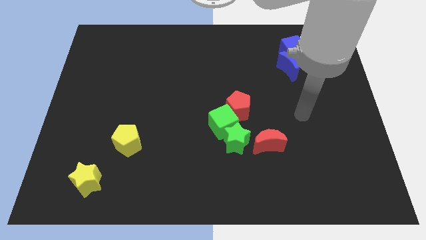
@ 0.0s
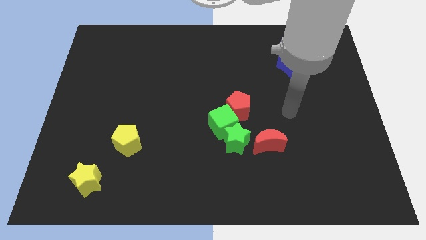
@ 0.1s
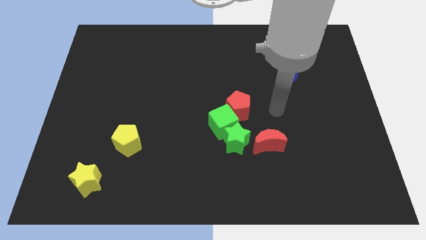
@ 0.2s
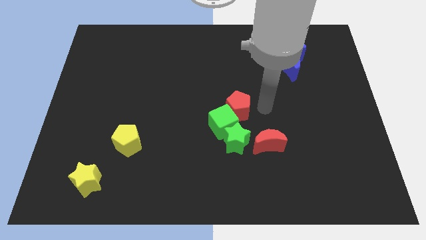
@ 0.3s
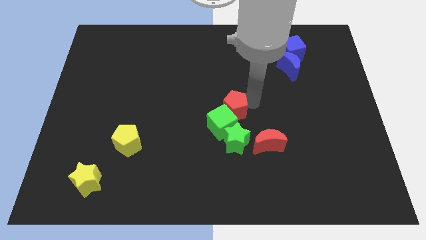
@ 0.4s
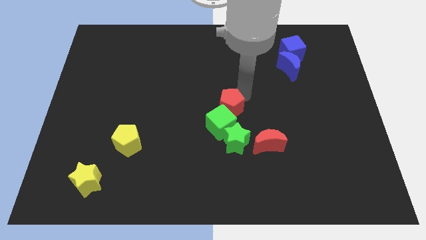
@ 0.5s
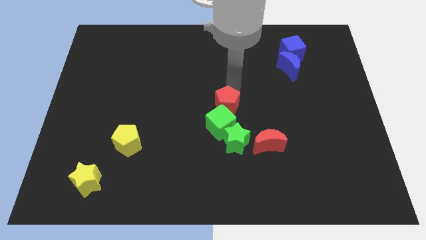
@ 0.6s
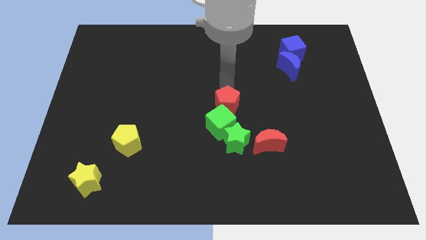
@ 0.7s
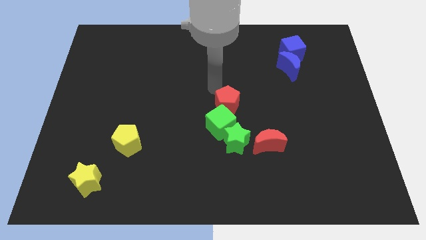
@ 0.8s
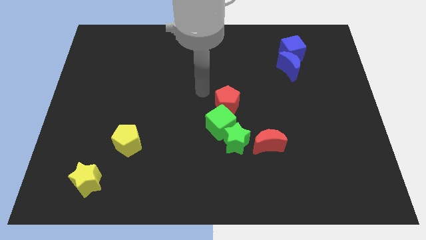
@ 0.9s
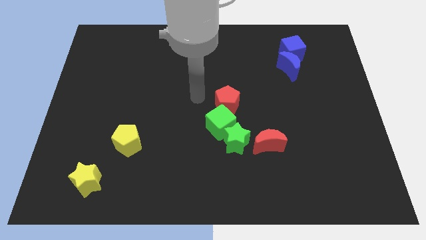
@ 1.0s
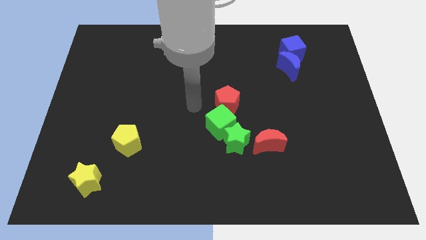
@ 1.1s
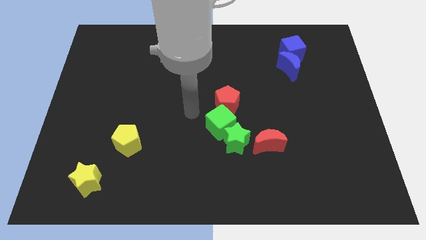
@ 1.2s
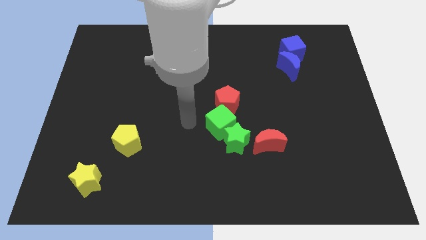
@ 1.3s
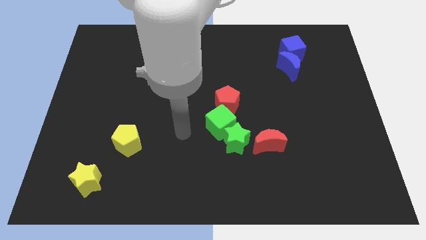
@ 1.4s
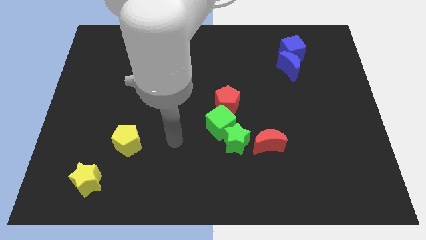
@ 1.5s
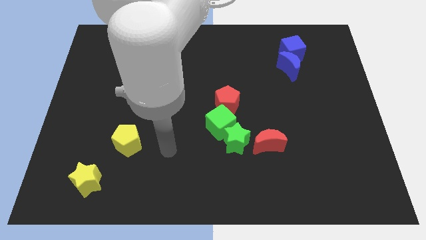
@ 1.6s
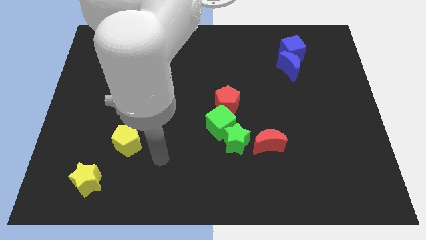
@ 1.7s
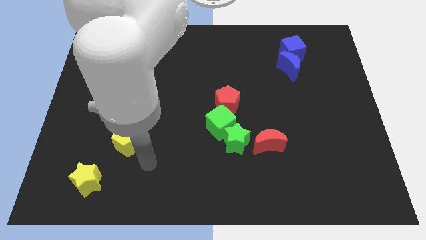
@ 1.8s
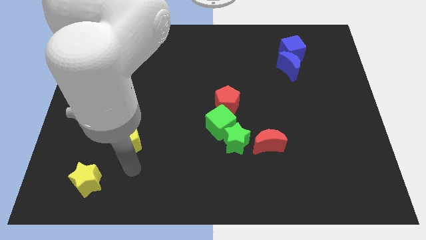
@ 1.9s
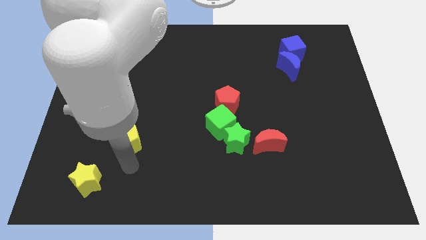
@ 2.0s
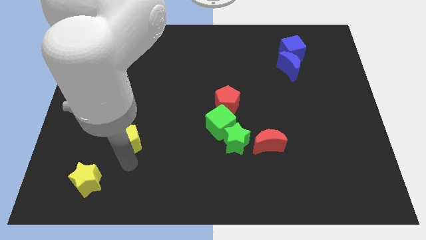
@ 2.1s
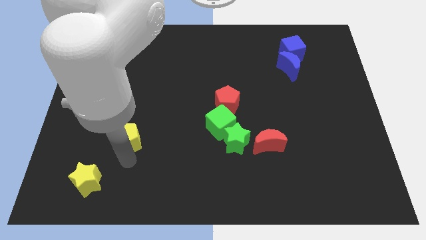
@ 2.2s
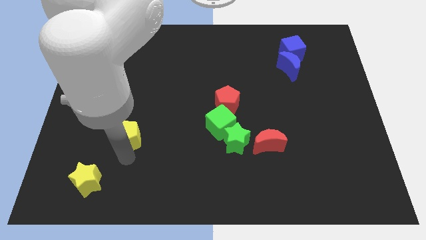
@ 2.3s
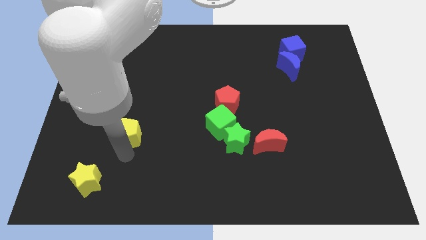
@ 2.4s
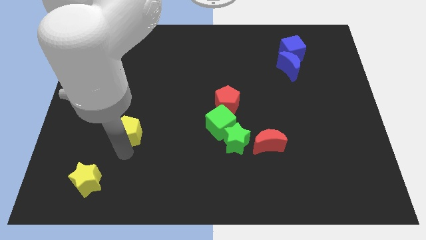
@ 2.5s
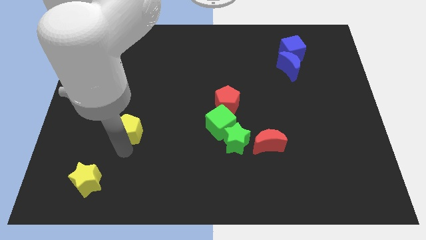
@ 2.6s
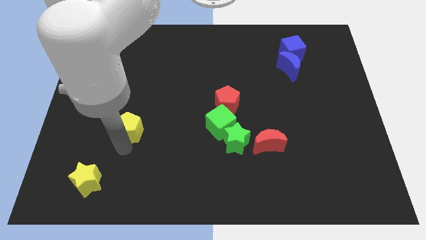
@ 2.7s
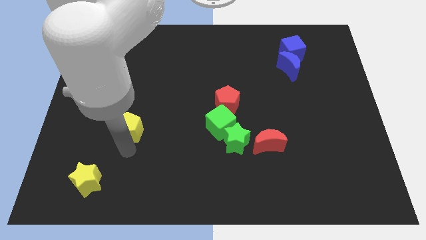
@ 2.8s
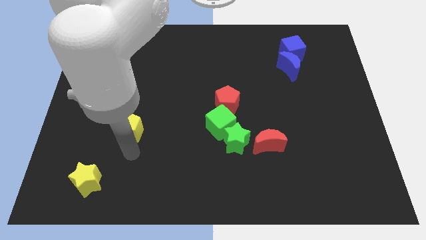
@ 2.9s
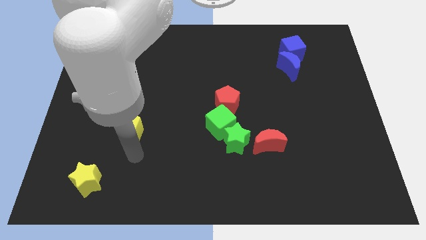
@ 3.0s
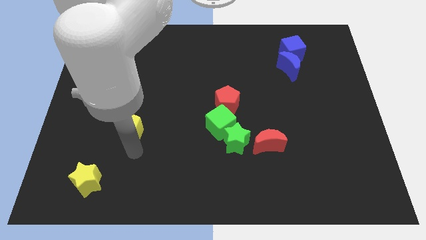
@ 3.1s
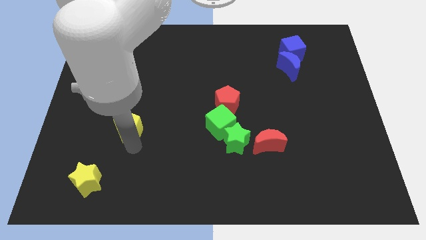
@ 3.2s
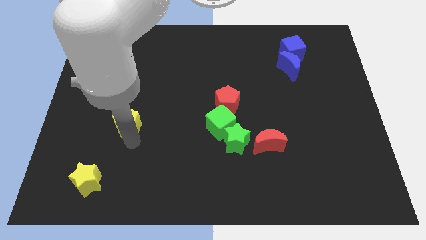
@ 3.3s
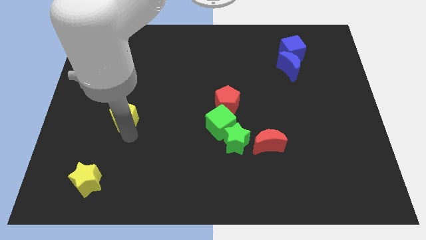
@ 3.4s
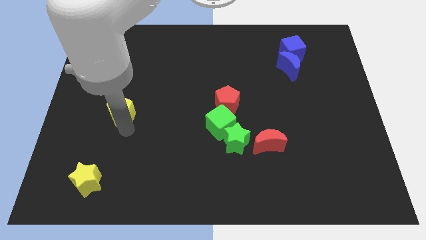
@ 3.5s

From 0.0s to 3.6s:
slightly move the yellow pentagon up

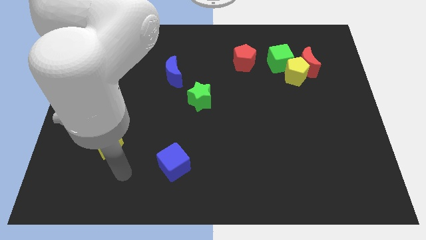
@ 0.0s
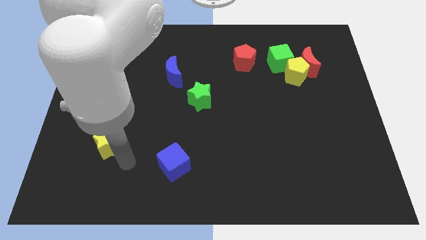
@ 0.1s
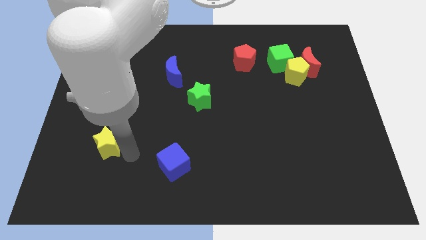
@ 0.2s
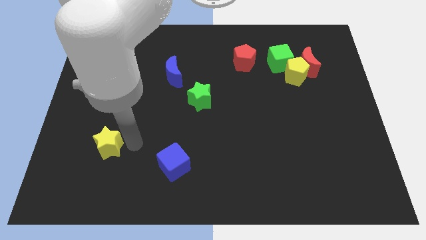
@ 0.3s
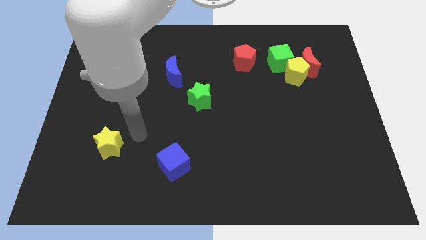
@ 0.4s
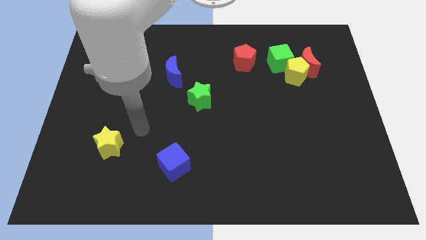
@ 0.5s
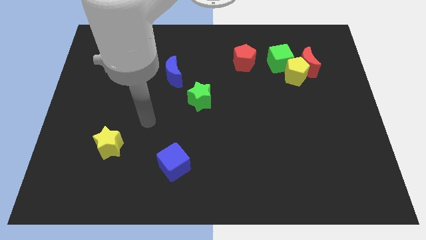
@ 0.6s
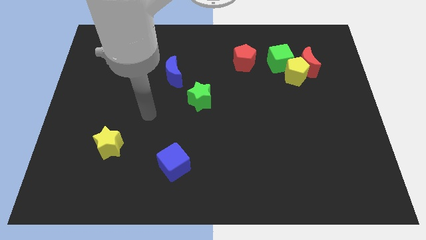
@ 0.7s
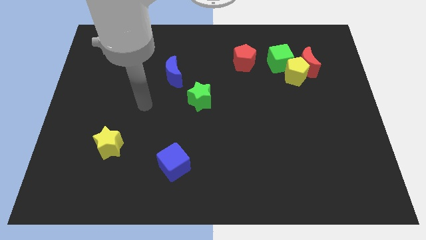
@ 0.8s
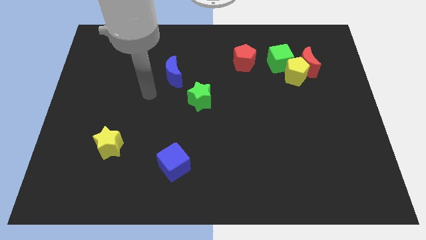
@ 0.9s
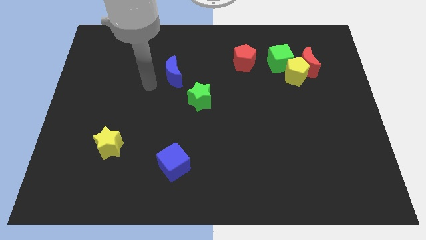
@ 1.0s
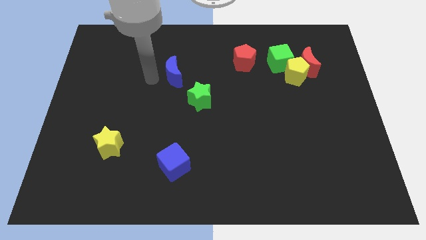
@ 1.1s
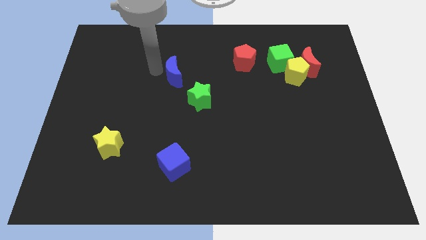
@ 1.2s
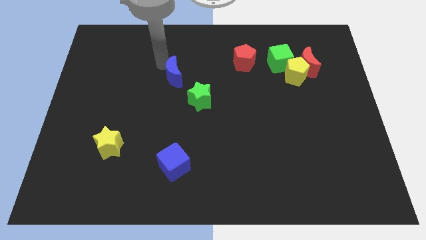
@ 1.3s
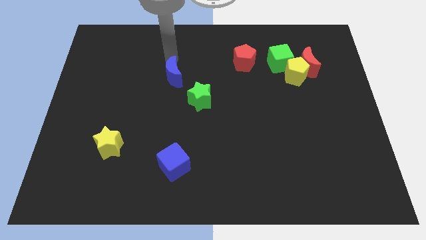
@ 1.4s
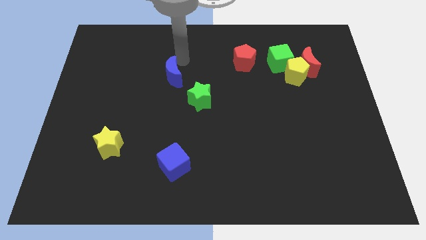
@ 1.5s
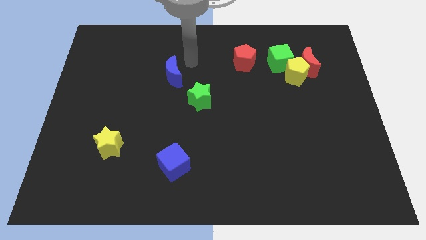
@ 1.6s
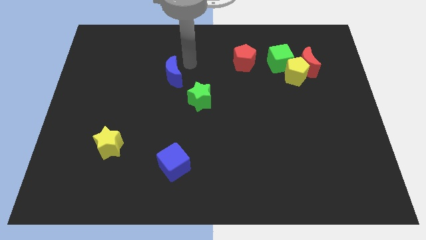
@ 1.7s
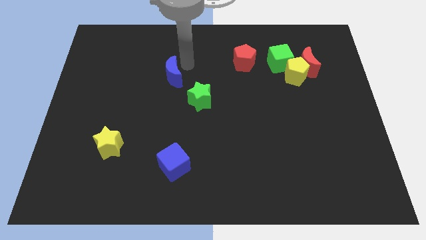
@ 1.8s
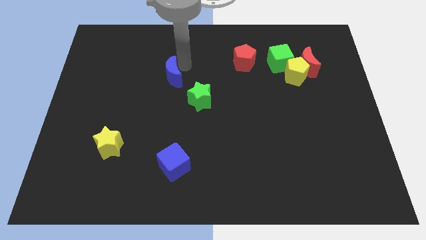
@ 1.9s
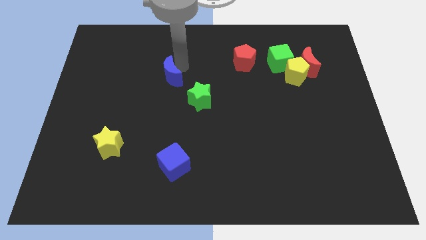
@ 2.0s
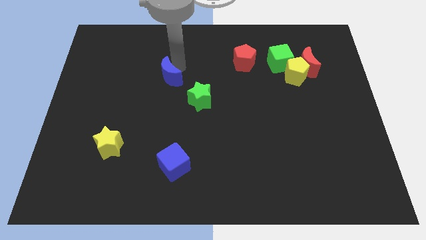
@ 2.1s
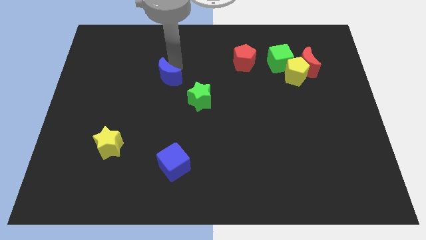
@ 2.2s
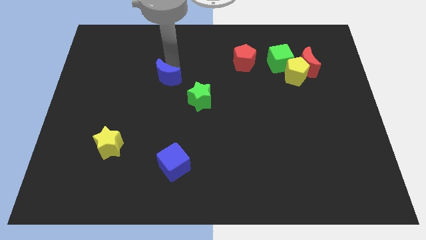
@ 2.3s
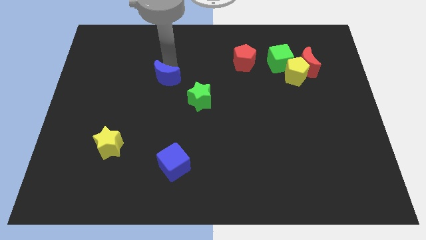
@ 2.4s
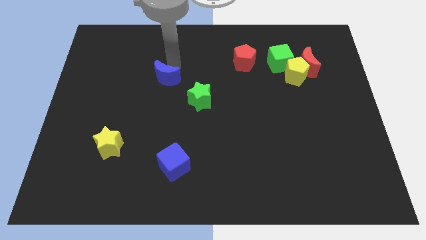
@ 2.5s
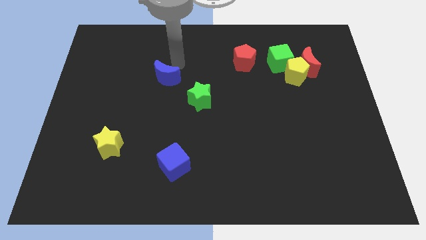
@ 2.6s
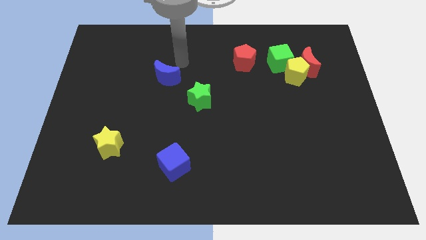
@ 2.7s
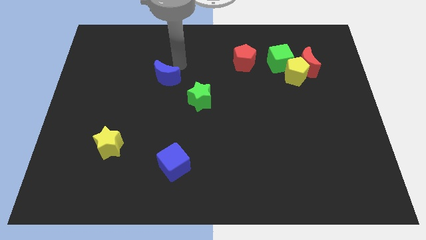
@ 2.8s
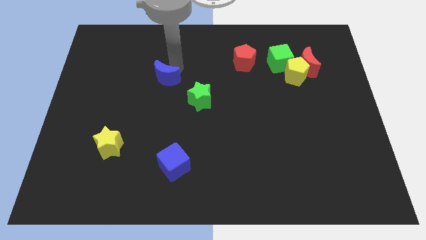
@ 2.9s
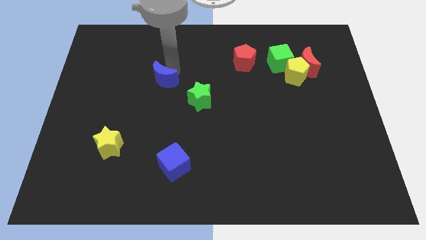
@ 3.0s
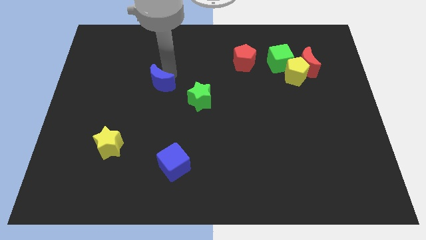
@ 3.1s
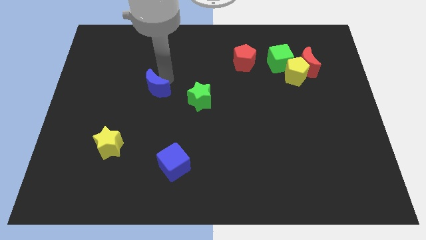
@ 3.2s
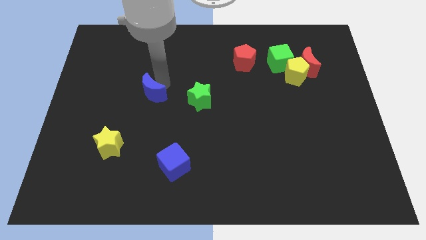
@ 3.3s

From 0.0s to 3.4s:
slightly push the blue moon diagonally downwards and to the left

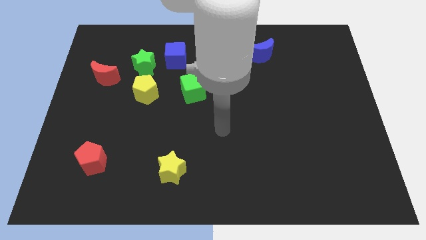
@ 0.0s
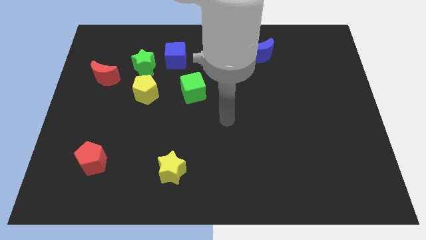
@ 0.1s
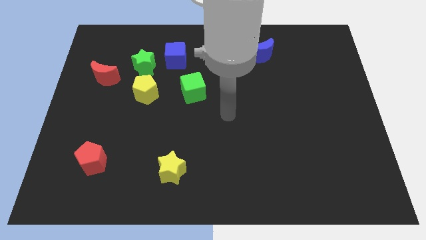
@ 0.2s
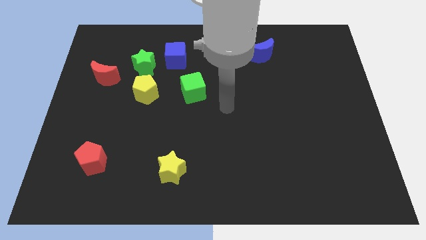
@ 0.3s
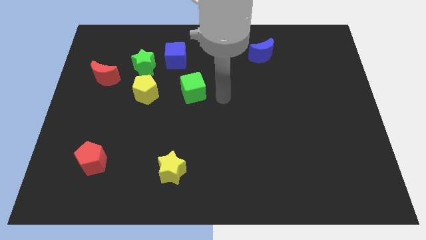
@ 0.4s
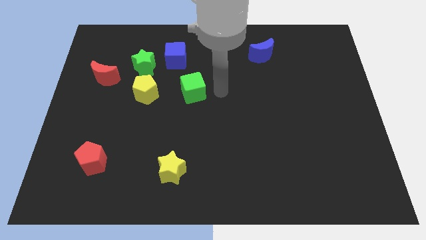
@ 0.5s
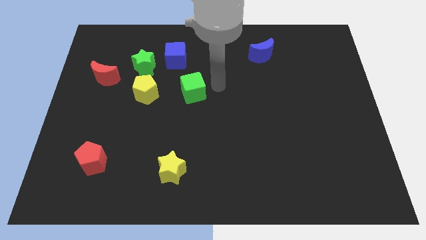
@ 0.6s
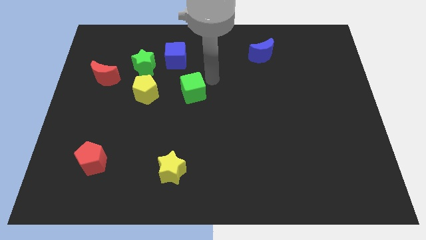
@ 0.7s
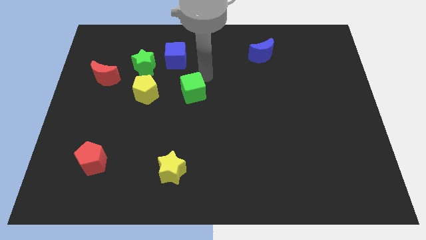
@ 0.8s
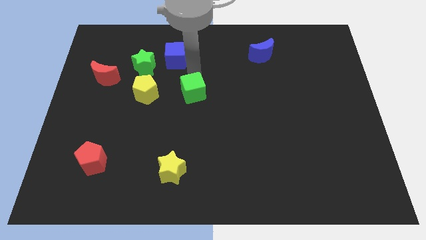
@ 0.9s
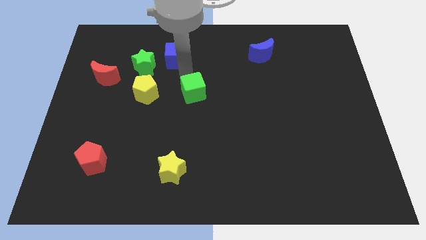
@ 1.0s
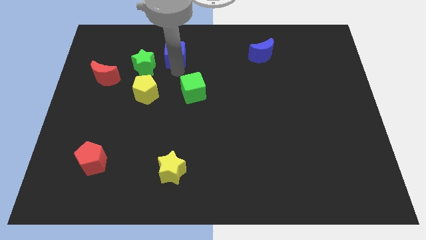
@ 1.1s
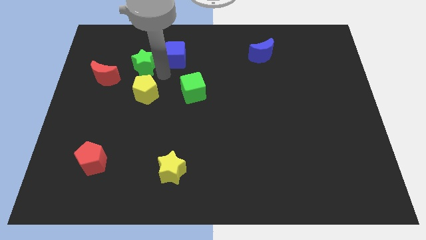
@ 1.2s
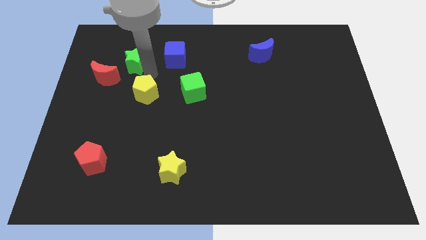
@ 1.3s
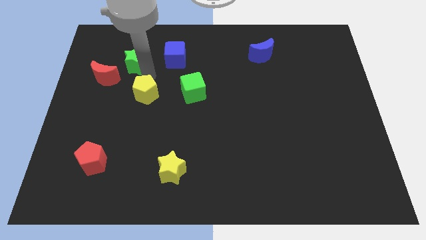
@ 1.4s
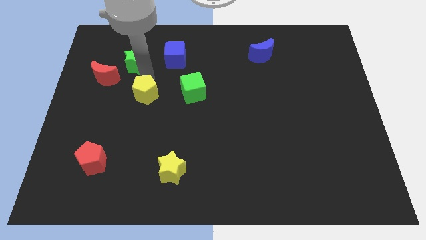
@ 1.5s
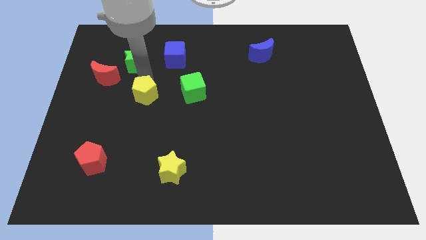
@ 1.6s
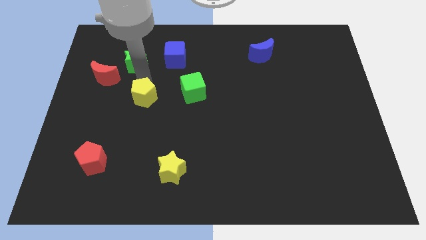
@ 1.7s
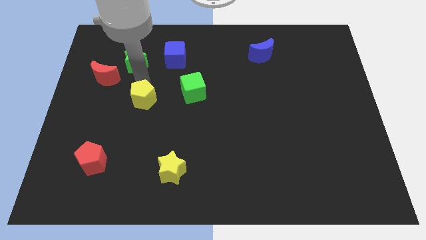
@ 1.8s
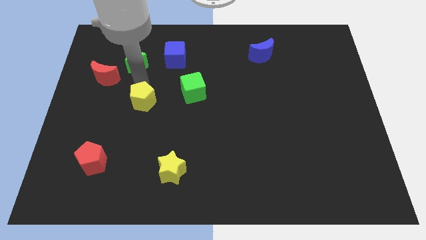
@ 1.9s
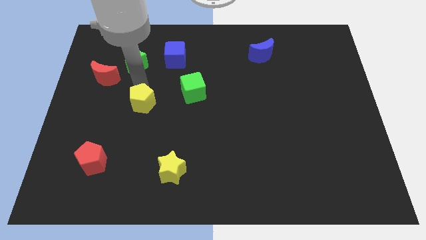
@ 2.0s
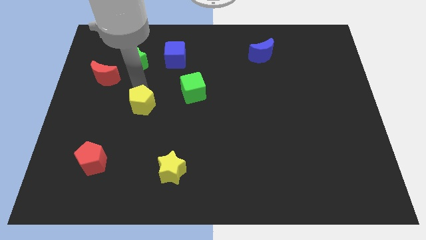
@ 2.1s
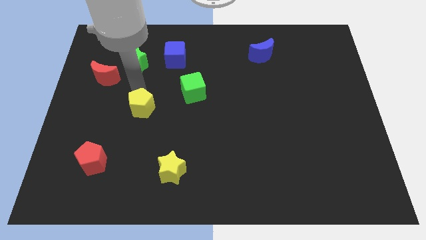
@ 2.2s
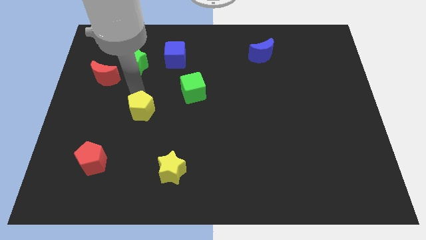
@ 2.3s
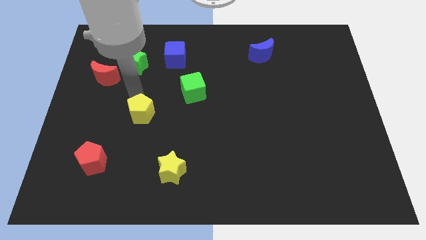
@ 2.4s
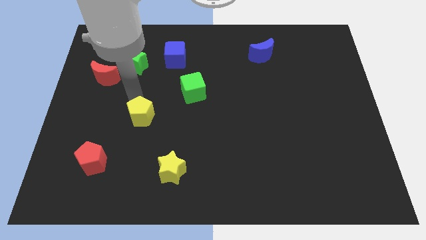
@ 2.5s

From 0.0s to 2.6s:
slightly move the yellow pentagon downwards
